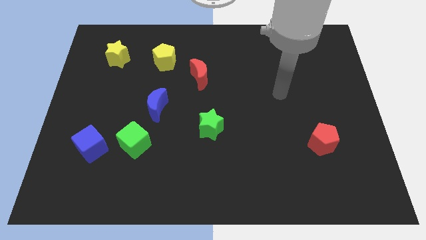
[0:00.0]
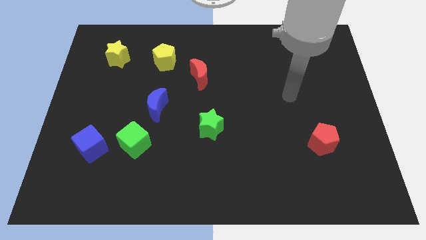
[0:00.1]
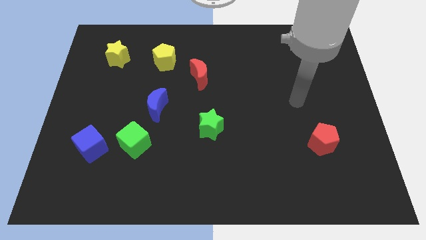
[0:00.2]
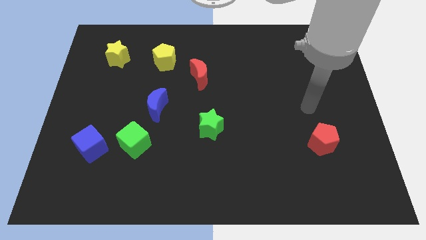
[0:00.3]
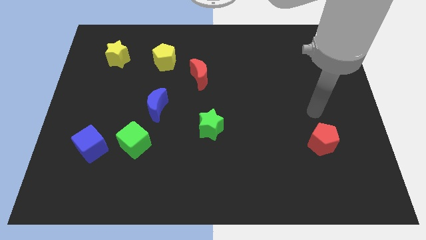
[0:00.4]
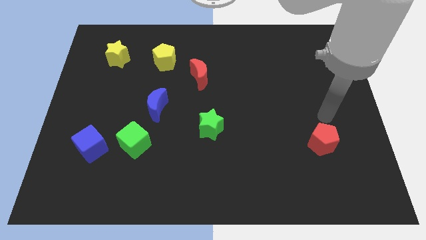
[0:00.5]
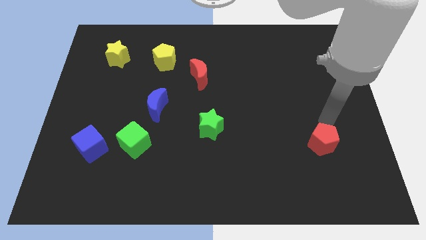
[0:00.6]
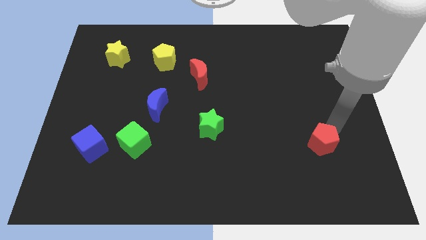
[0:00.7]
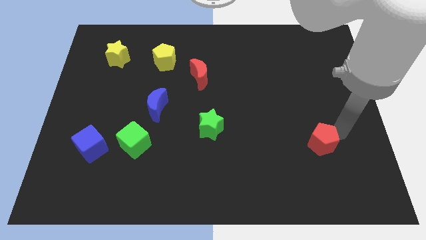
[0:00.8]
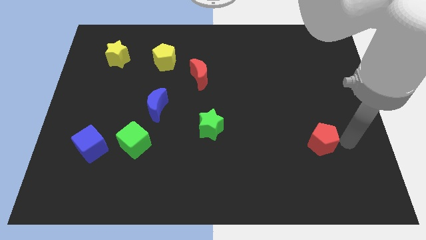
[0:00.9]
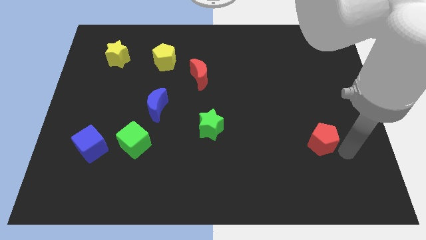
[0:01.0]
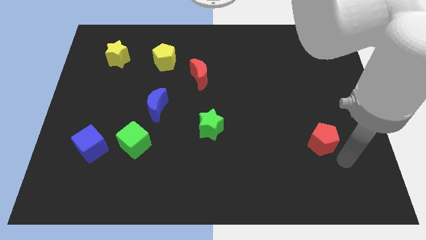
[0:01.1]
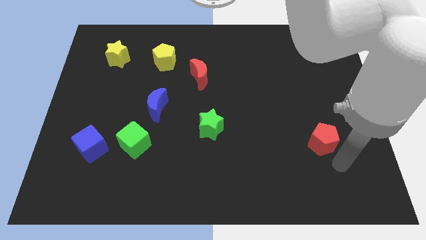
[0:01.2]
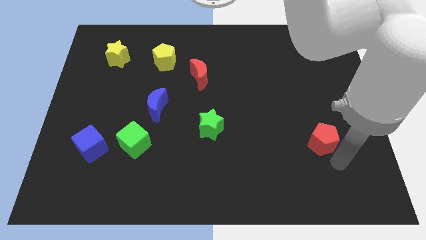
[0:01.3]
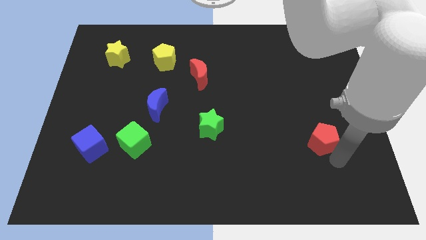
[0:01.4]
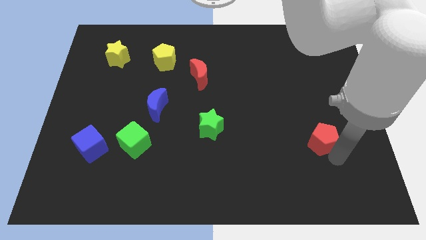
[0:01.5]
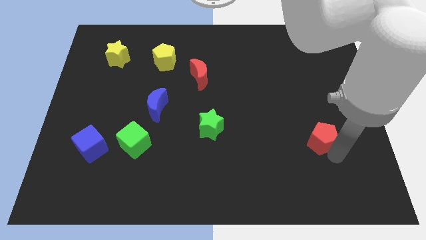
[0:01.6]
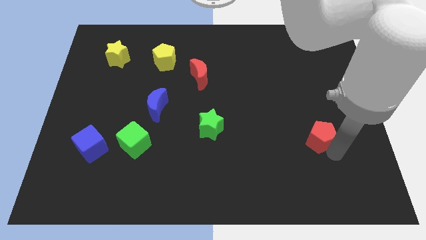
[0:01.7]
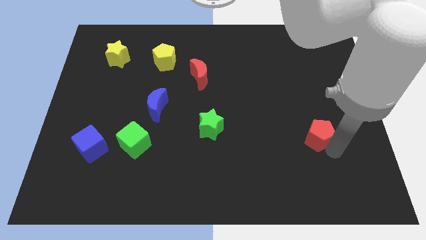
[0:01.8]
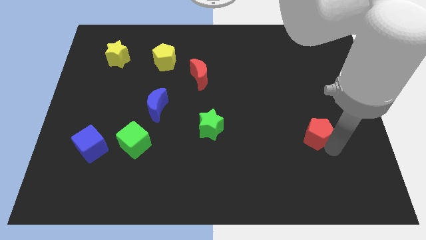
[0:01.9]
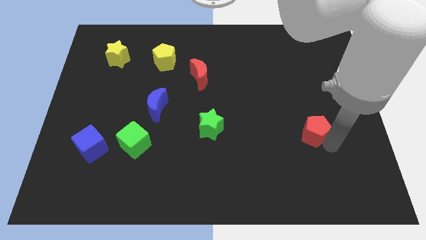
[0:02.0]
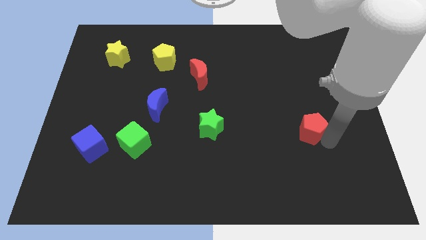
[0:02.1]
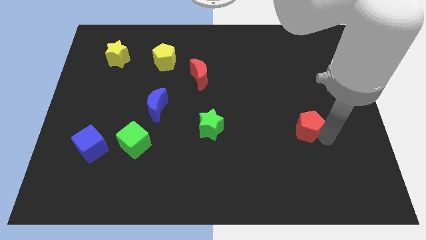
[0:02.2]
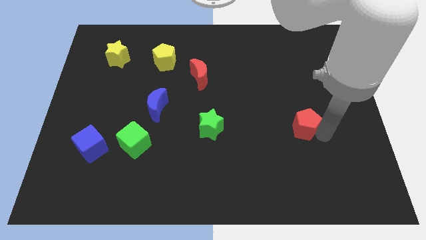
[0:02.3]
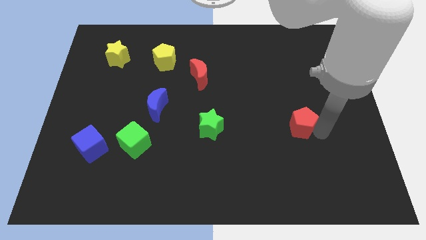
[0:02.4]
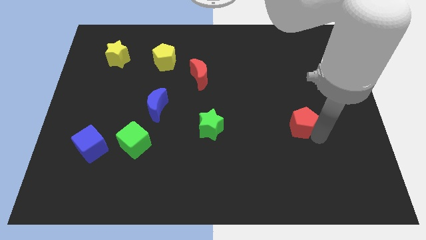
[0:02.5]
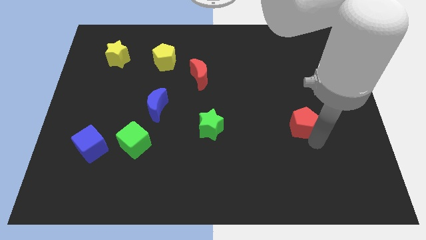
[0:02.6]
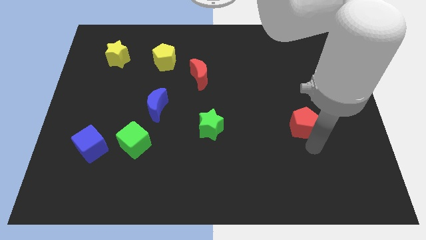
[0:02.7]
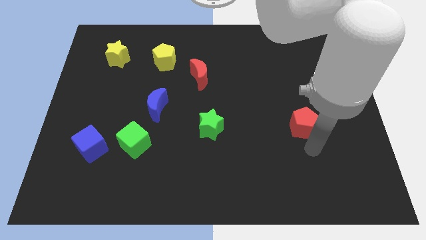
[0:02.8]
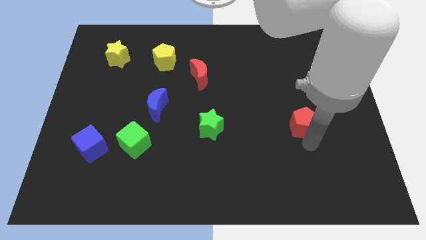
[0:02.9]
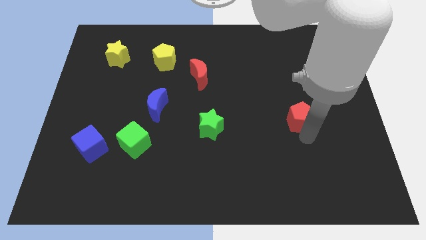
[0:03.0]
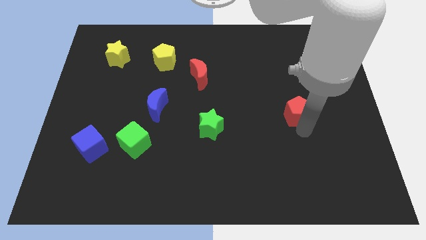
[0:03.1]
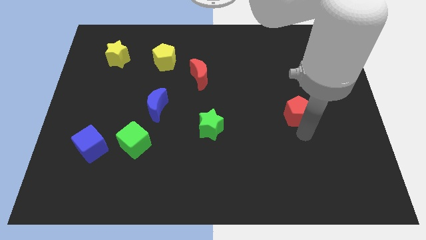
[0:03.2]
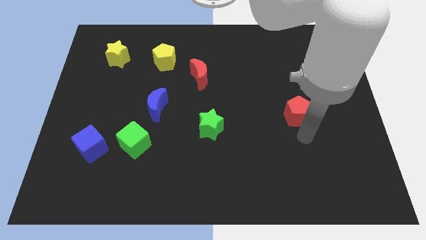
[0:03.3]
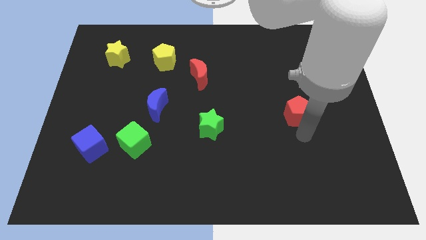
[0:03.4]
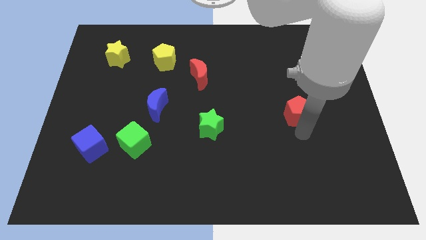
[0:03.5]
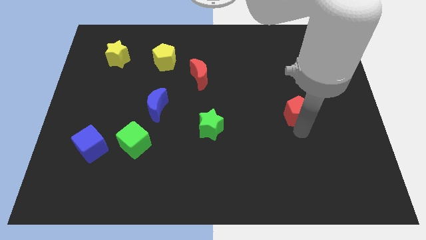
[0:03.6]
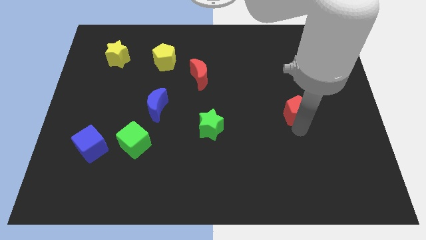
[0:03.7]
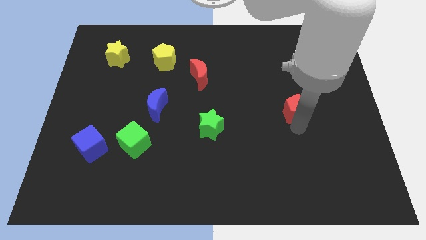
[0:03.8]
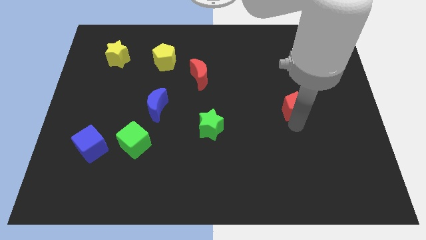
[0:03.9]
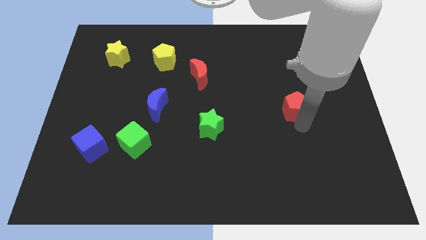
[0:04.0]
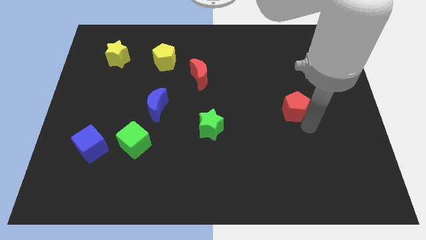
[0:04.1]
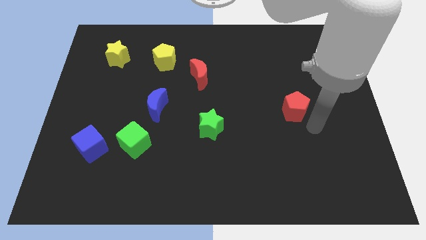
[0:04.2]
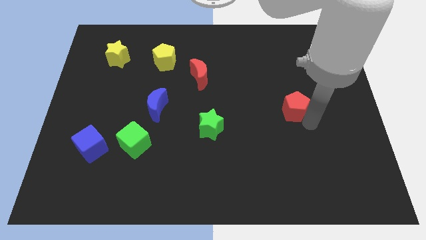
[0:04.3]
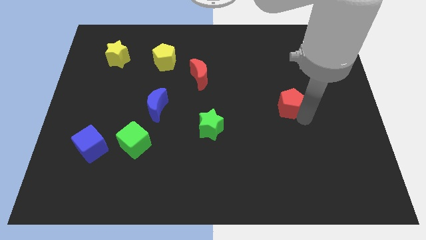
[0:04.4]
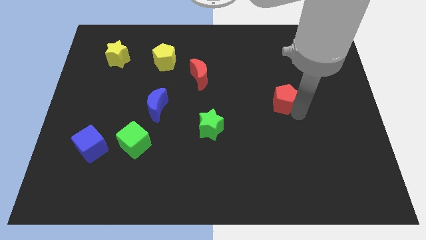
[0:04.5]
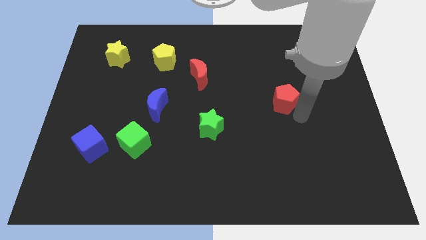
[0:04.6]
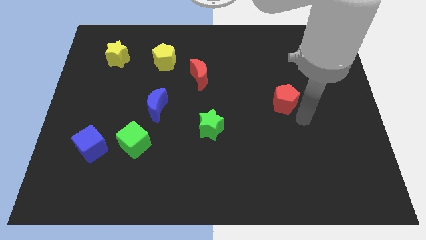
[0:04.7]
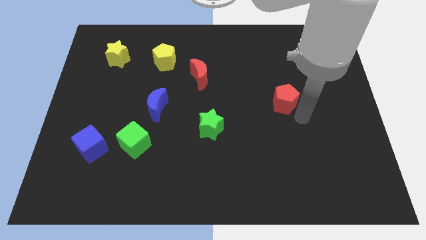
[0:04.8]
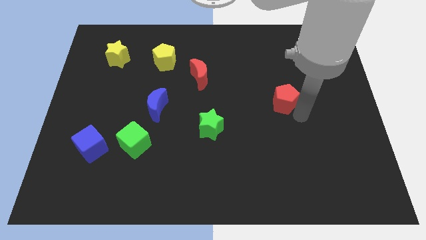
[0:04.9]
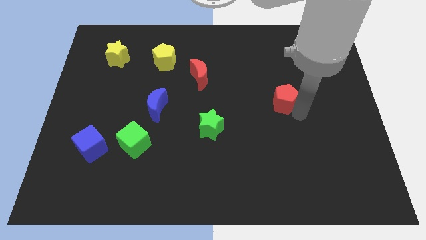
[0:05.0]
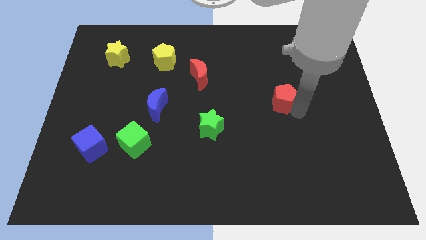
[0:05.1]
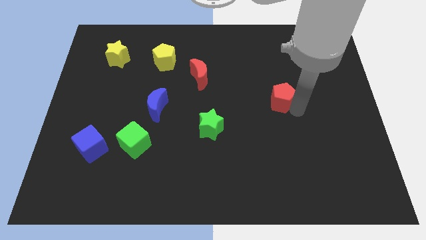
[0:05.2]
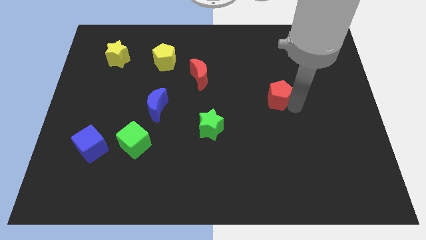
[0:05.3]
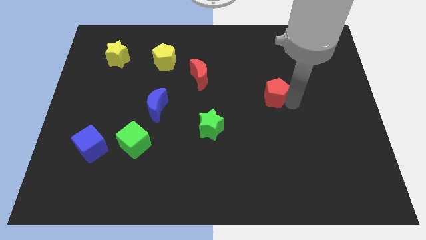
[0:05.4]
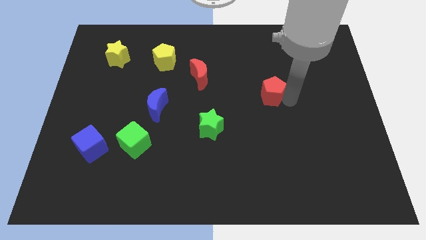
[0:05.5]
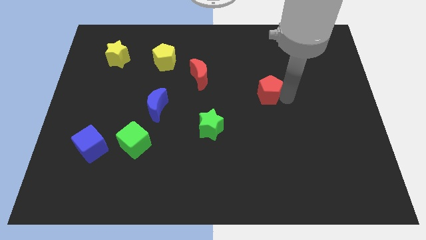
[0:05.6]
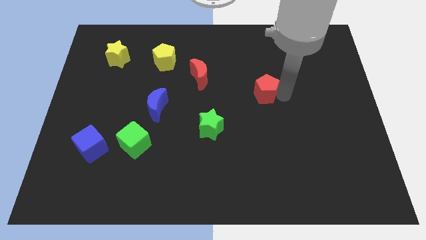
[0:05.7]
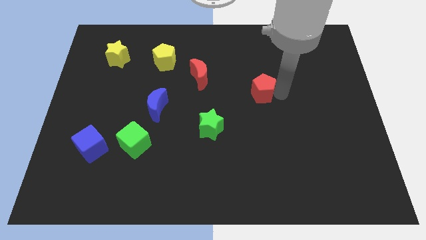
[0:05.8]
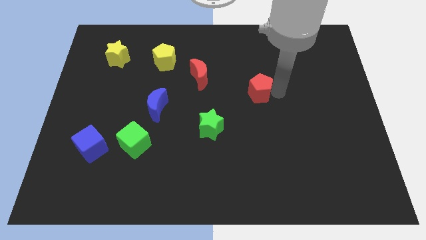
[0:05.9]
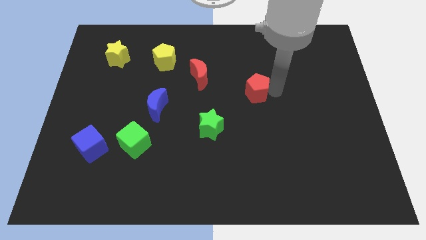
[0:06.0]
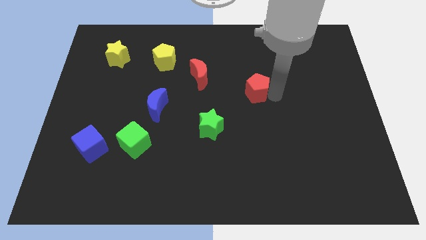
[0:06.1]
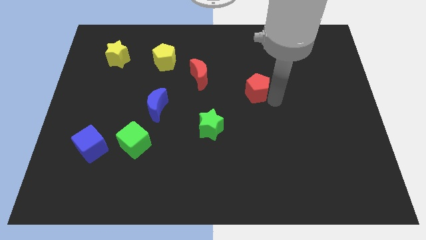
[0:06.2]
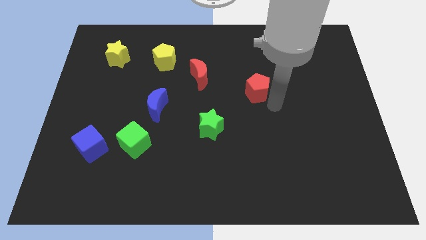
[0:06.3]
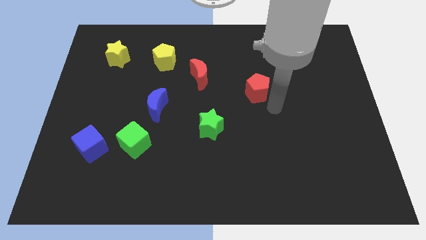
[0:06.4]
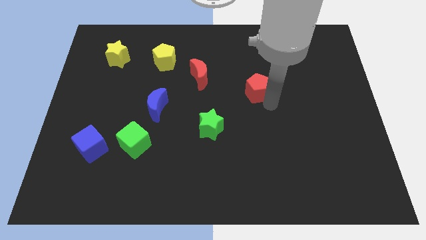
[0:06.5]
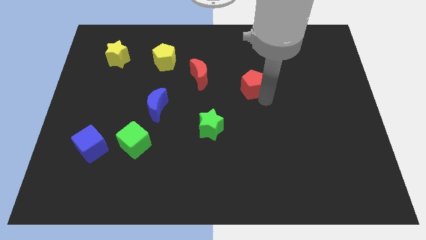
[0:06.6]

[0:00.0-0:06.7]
put the red pentagon to the right of the red moon

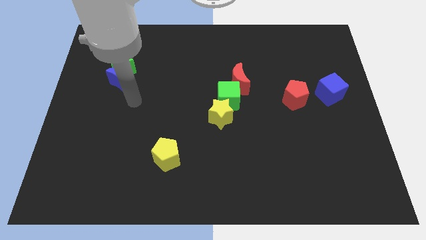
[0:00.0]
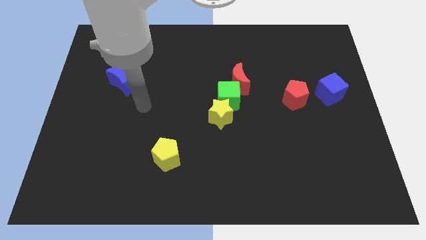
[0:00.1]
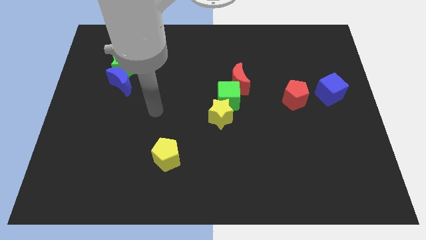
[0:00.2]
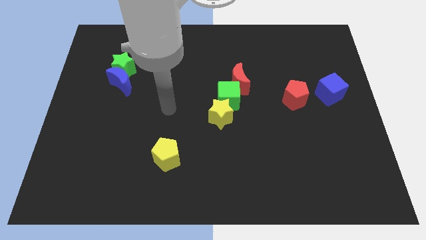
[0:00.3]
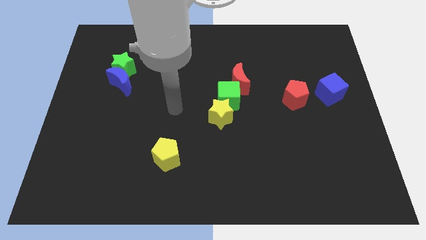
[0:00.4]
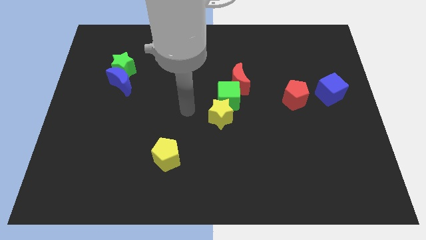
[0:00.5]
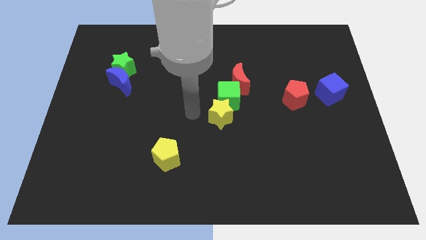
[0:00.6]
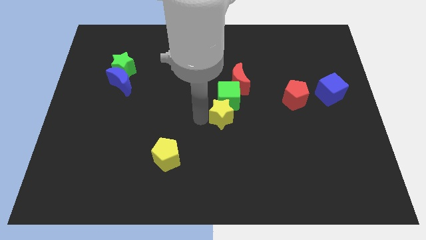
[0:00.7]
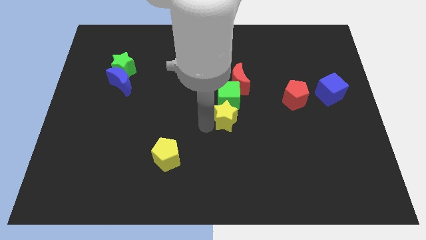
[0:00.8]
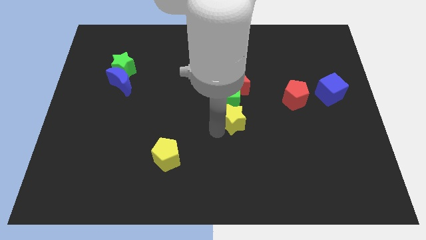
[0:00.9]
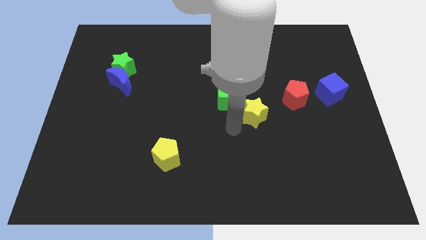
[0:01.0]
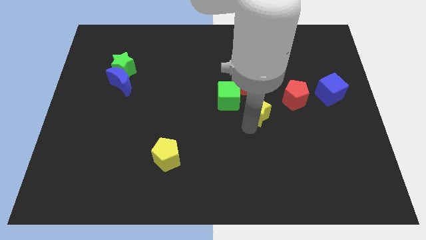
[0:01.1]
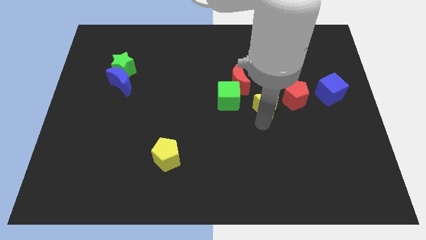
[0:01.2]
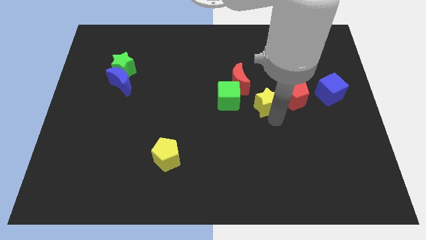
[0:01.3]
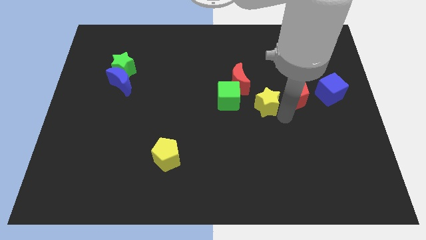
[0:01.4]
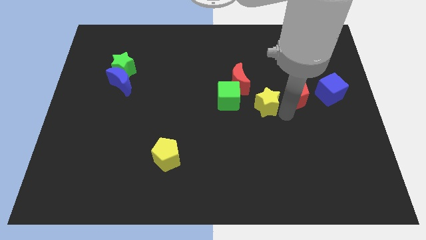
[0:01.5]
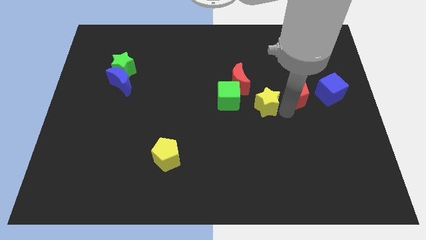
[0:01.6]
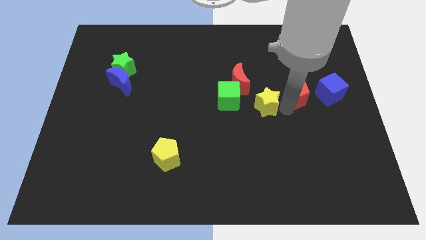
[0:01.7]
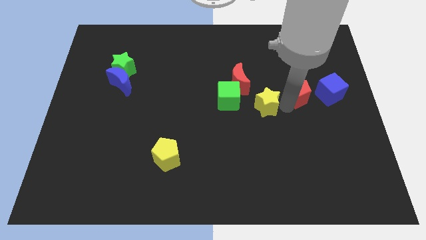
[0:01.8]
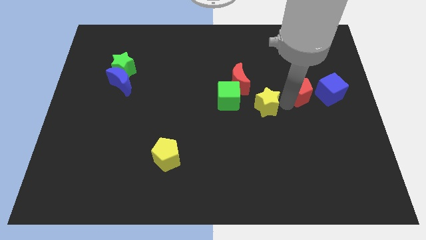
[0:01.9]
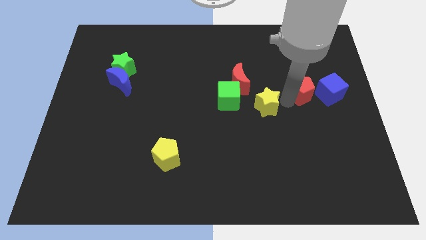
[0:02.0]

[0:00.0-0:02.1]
put the red pentagon to the top left of the blue cube
